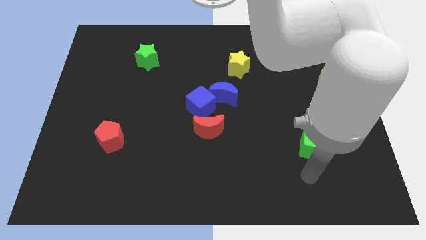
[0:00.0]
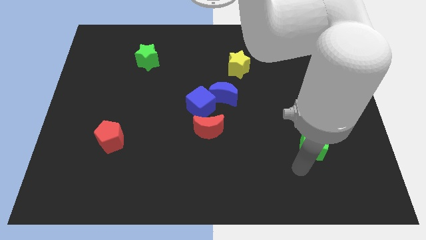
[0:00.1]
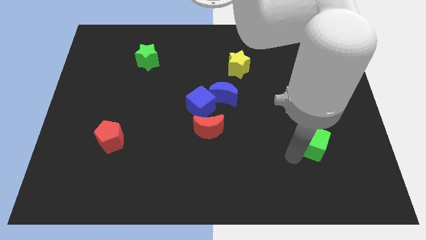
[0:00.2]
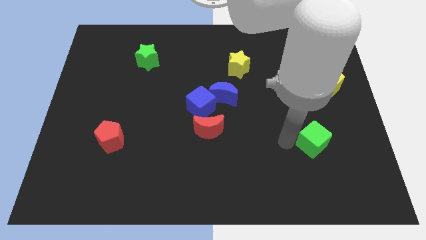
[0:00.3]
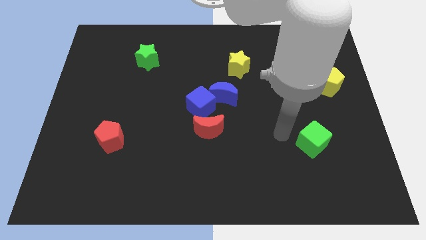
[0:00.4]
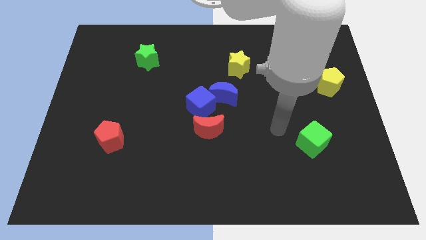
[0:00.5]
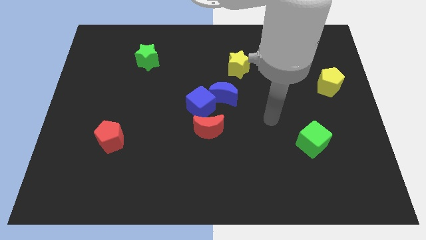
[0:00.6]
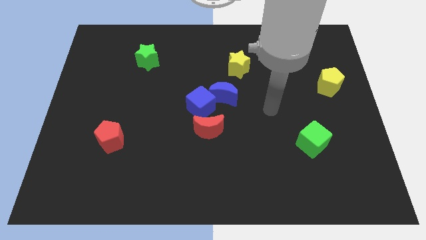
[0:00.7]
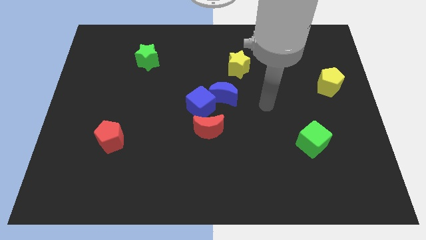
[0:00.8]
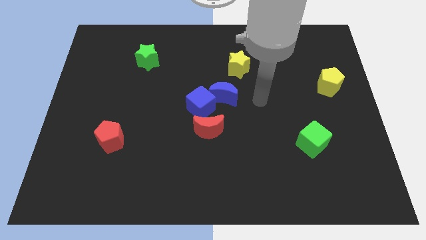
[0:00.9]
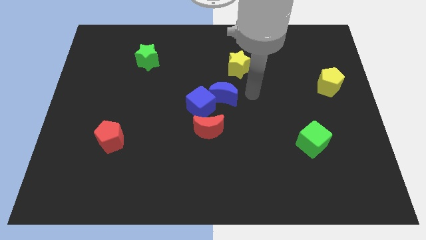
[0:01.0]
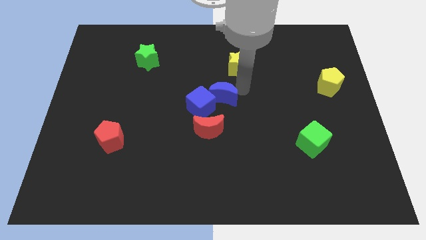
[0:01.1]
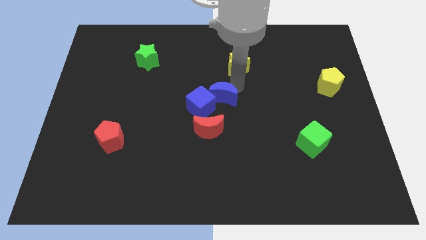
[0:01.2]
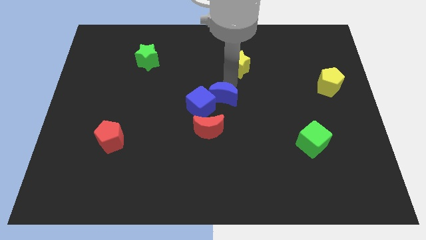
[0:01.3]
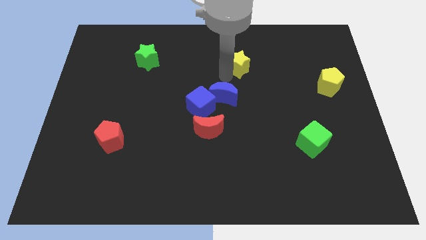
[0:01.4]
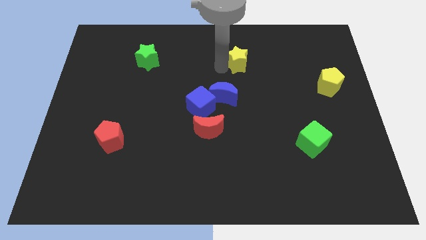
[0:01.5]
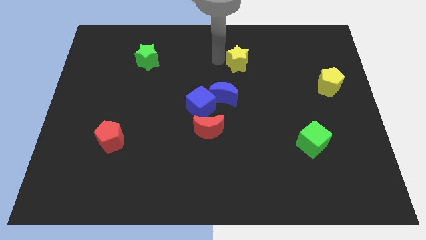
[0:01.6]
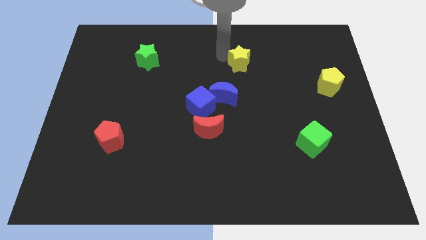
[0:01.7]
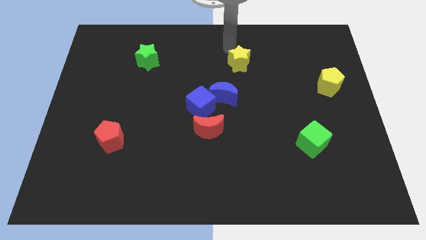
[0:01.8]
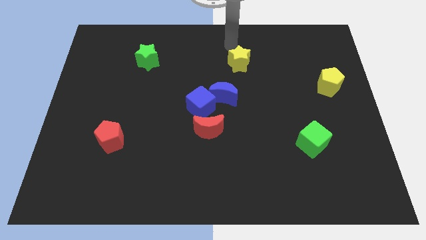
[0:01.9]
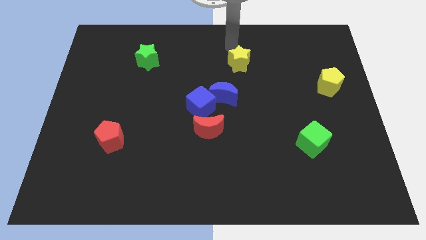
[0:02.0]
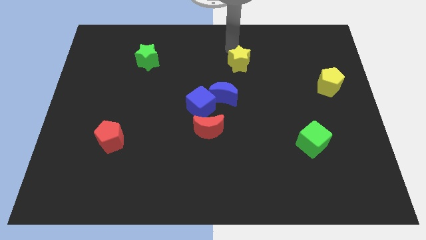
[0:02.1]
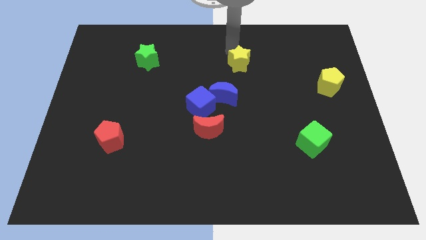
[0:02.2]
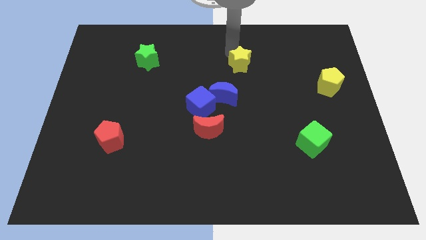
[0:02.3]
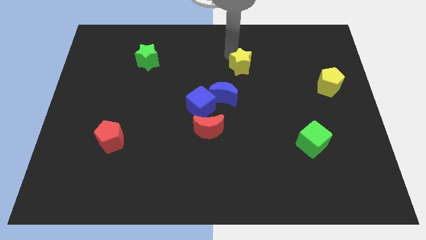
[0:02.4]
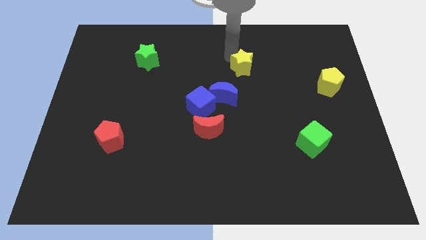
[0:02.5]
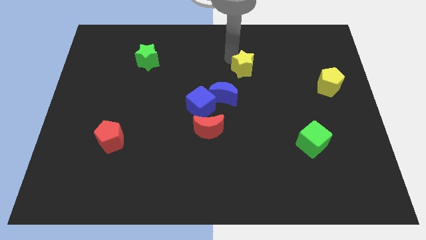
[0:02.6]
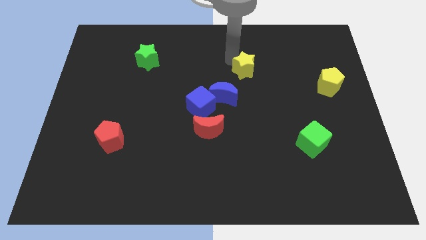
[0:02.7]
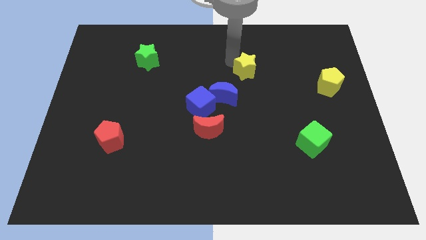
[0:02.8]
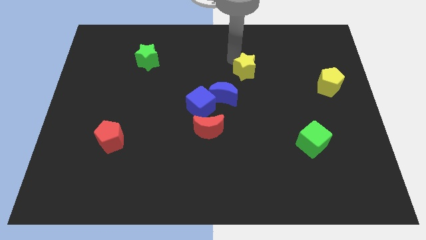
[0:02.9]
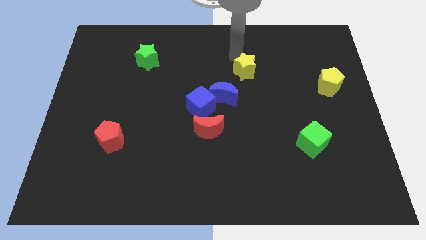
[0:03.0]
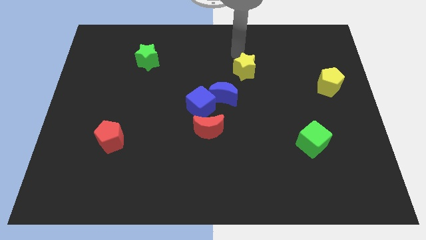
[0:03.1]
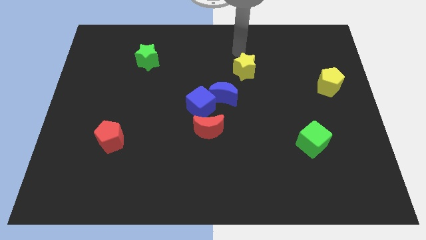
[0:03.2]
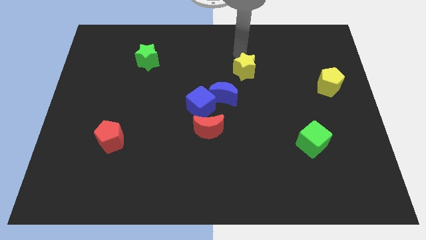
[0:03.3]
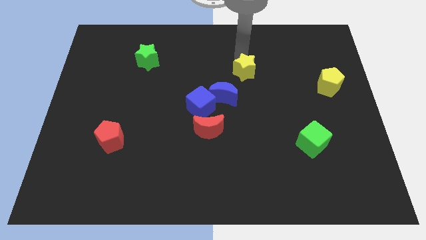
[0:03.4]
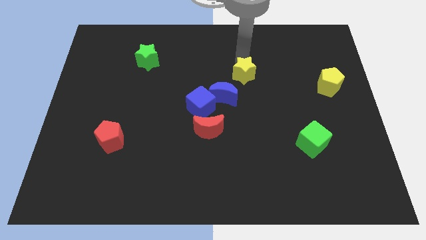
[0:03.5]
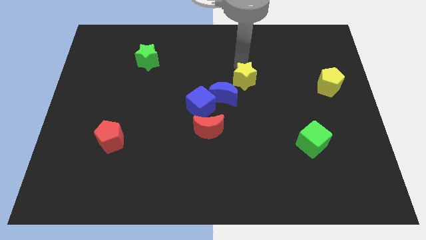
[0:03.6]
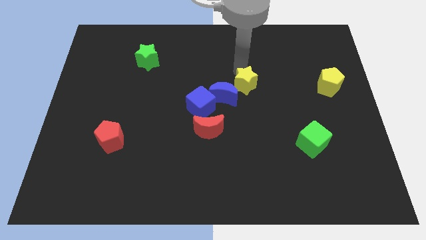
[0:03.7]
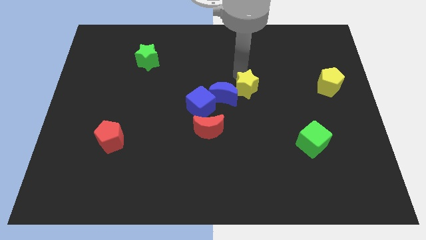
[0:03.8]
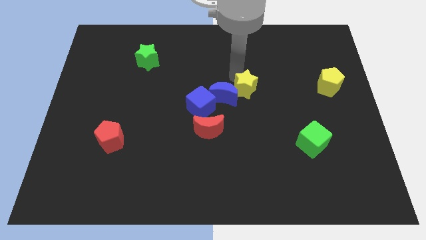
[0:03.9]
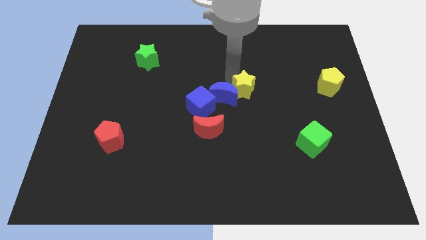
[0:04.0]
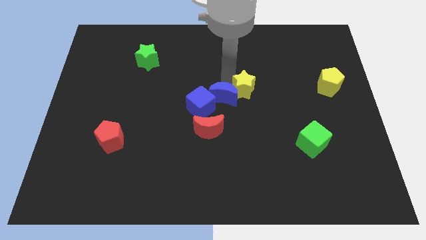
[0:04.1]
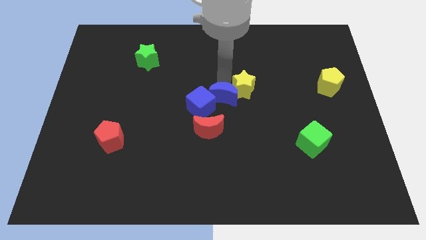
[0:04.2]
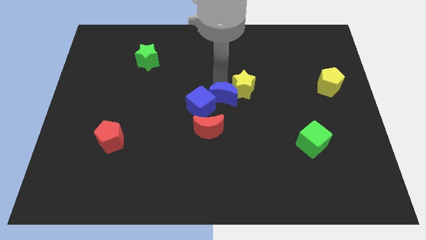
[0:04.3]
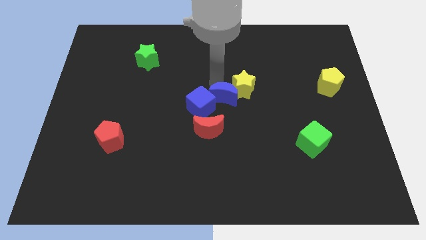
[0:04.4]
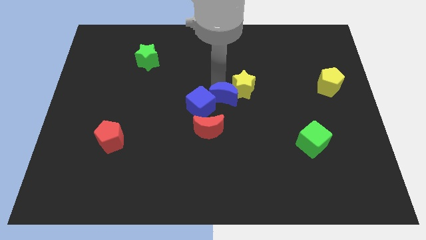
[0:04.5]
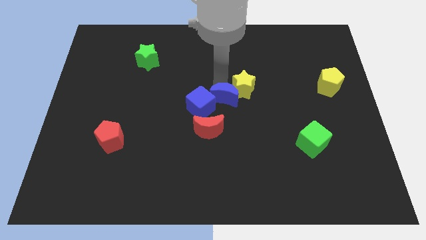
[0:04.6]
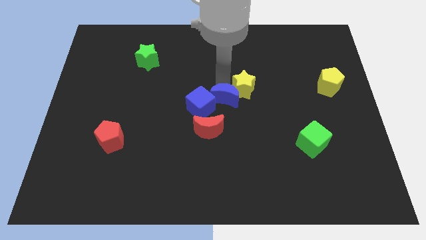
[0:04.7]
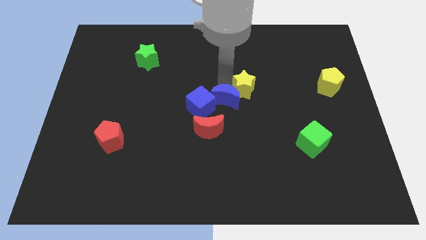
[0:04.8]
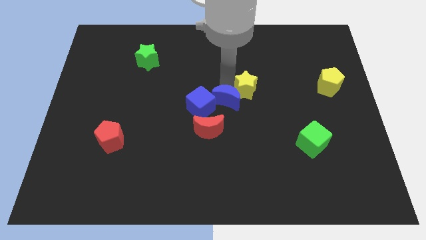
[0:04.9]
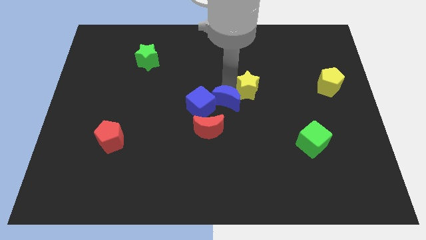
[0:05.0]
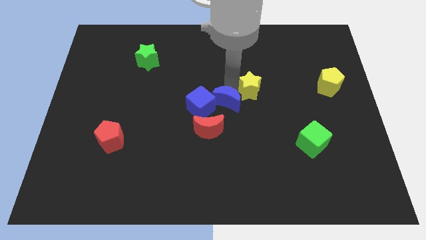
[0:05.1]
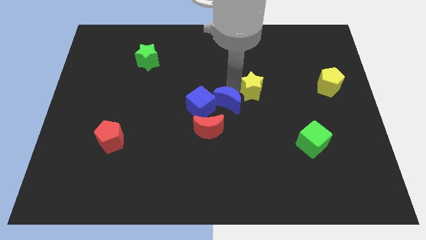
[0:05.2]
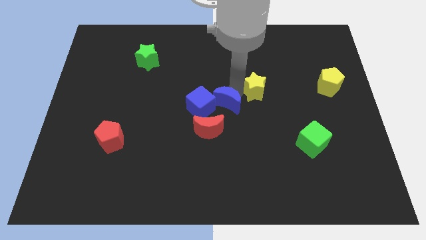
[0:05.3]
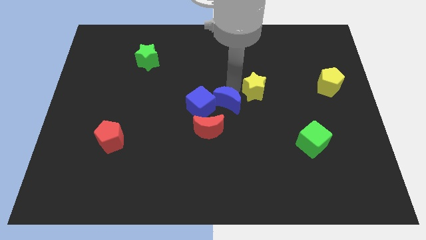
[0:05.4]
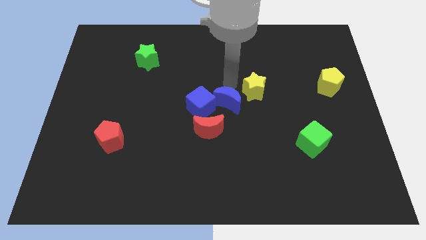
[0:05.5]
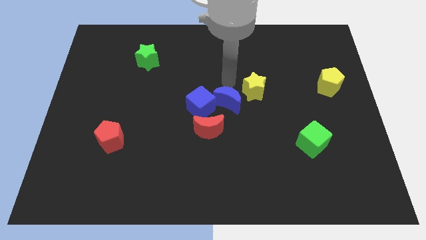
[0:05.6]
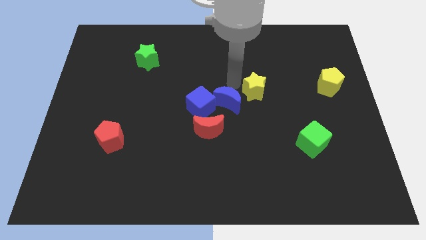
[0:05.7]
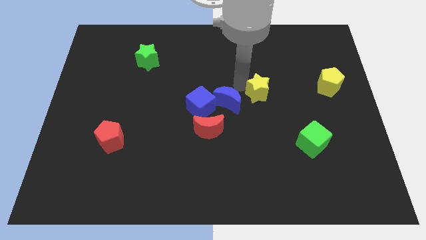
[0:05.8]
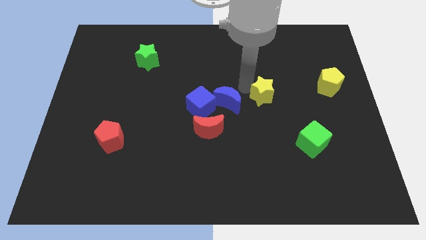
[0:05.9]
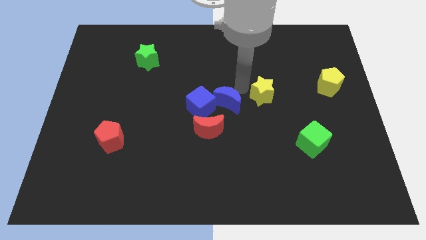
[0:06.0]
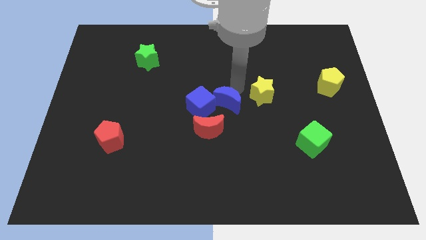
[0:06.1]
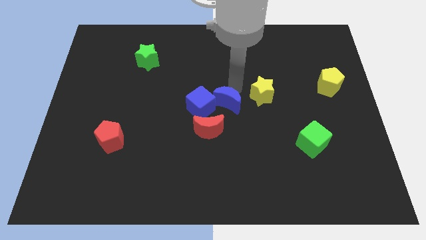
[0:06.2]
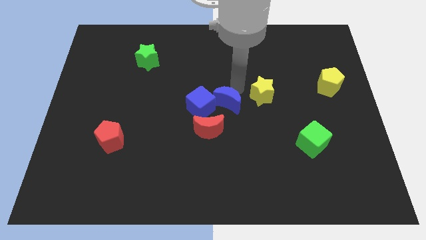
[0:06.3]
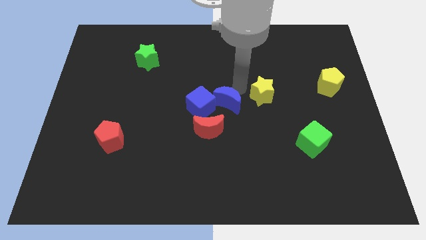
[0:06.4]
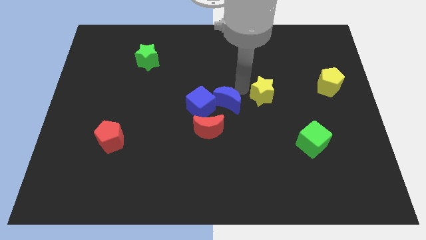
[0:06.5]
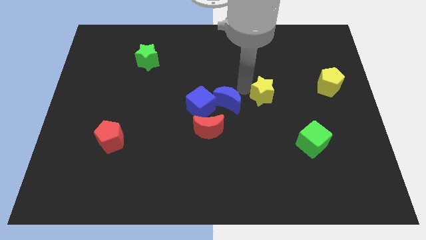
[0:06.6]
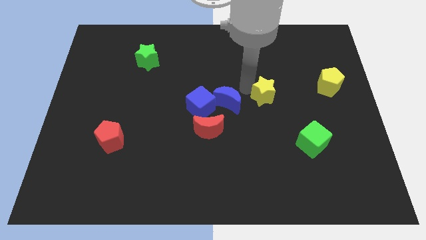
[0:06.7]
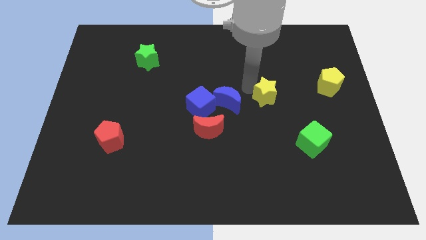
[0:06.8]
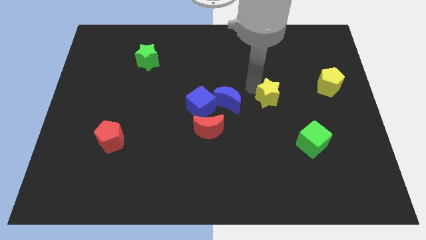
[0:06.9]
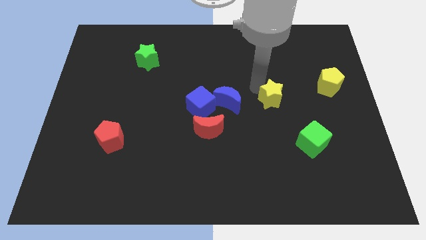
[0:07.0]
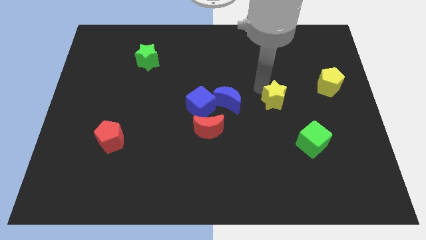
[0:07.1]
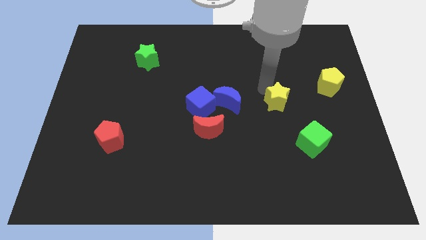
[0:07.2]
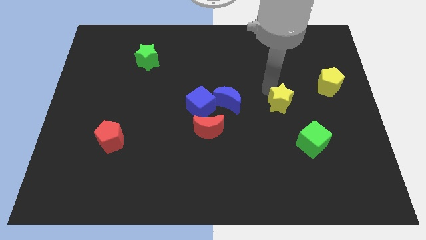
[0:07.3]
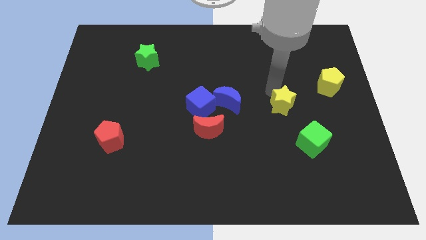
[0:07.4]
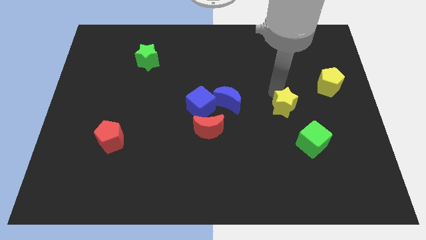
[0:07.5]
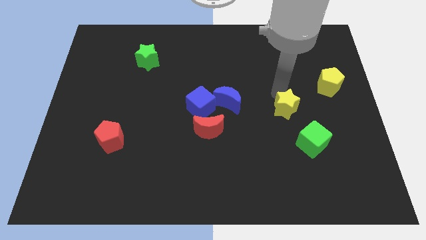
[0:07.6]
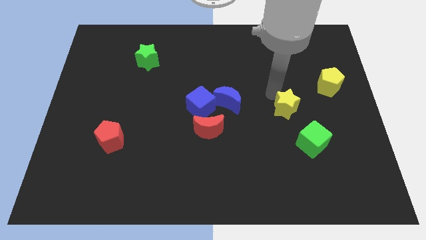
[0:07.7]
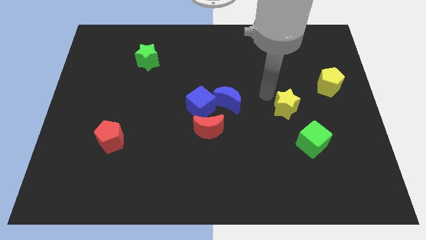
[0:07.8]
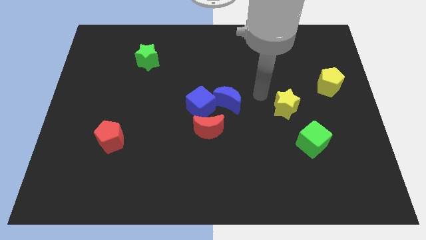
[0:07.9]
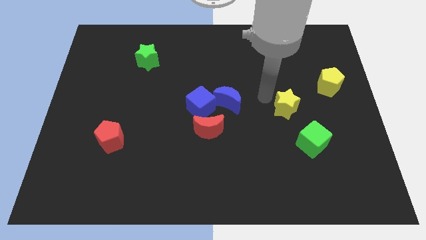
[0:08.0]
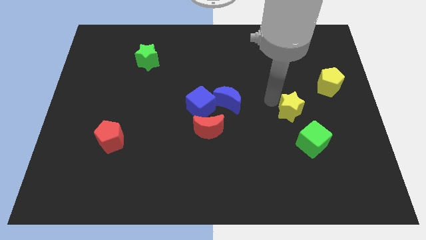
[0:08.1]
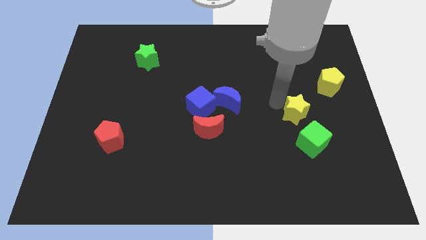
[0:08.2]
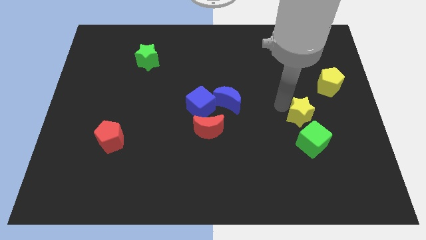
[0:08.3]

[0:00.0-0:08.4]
push the yellow star downwards and then to the right
